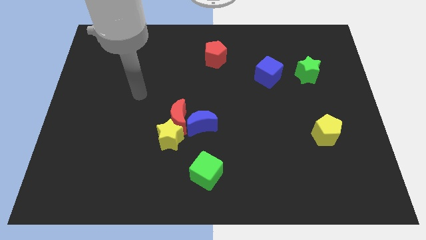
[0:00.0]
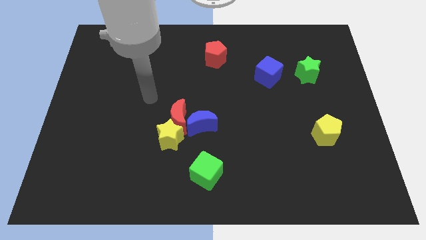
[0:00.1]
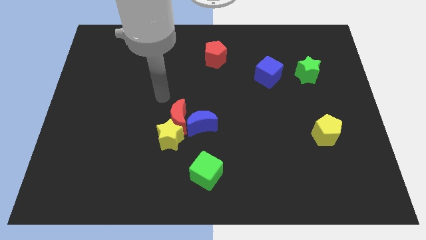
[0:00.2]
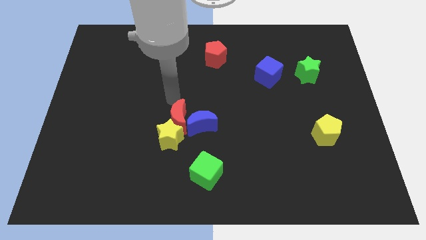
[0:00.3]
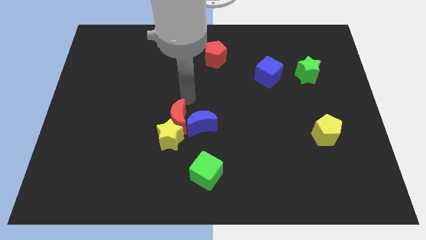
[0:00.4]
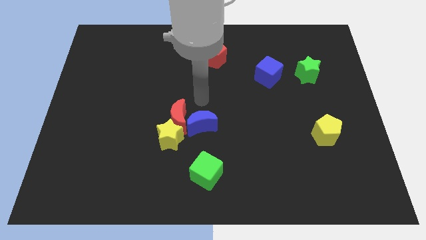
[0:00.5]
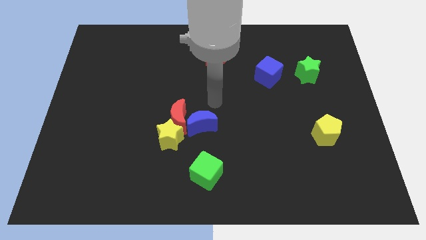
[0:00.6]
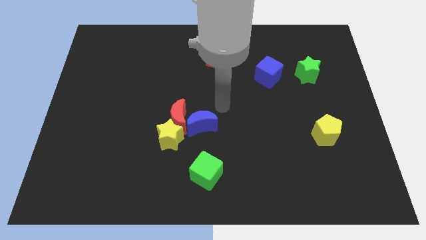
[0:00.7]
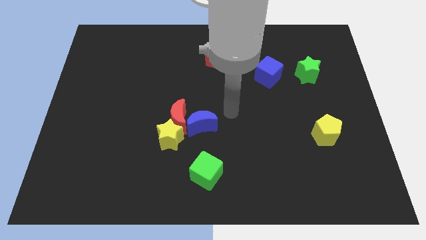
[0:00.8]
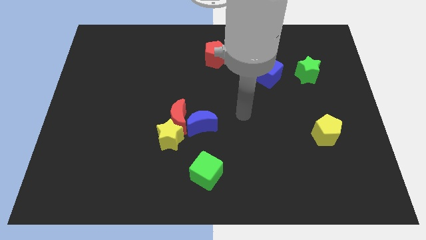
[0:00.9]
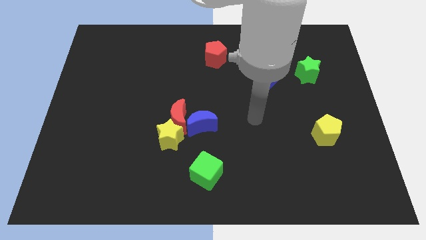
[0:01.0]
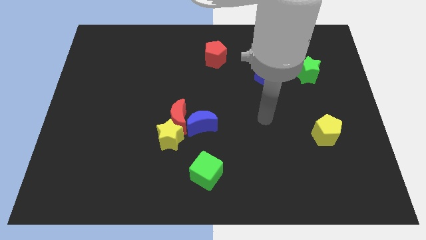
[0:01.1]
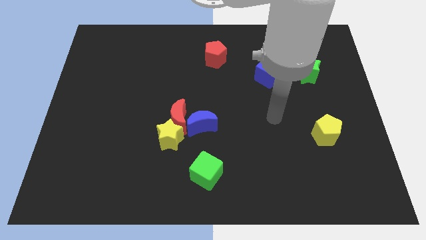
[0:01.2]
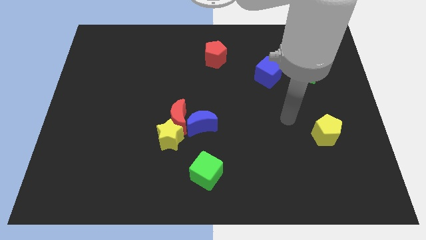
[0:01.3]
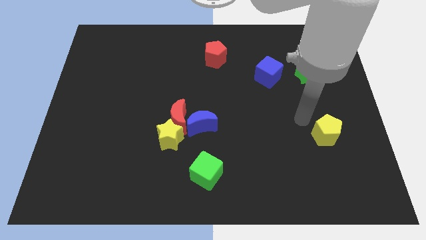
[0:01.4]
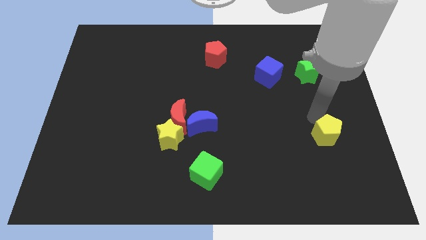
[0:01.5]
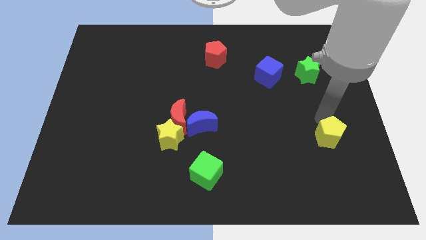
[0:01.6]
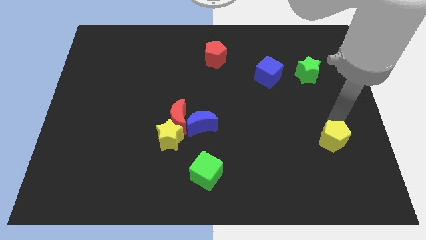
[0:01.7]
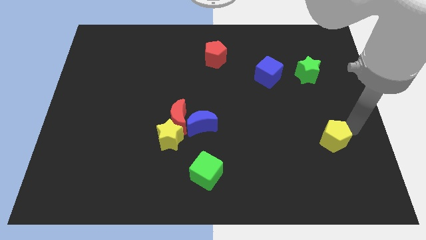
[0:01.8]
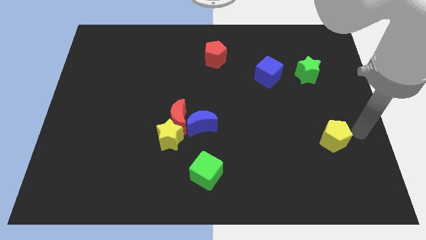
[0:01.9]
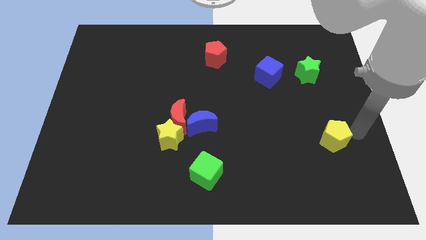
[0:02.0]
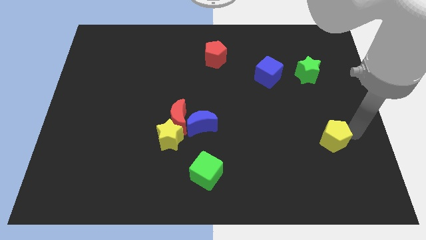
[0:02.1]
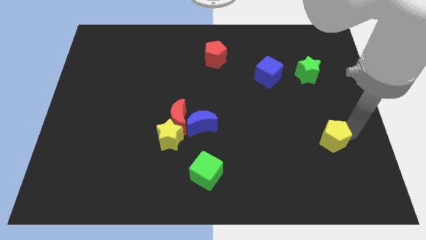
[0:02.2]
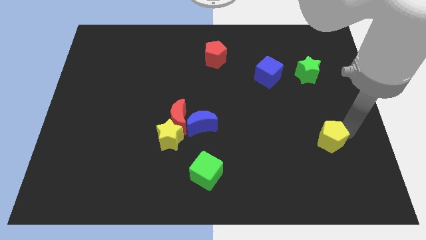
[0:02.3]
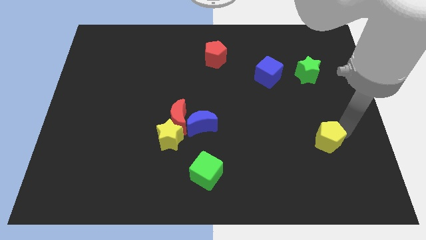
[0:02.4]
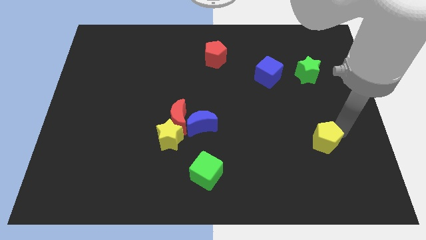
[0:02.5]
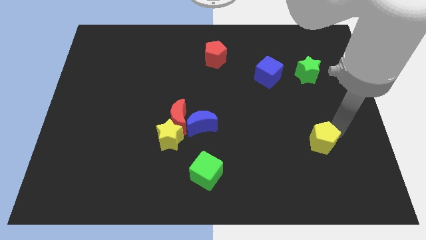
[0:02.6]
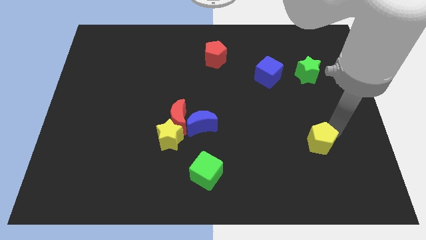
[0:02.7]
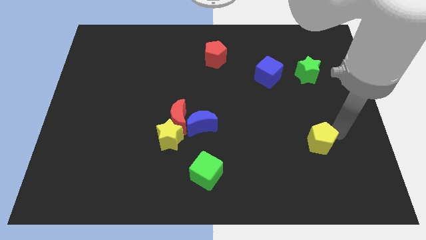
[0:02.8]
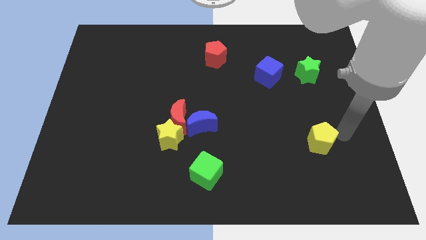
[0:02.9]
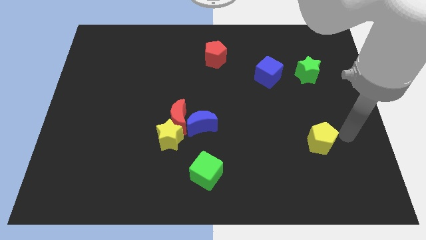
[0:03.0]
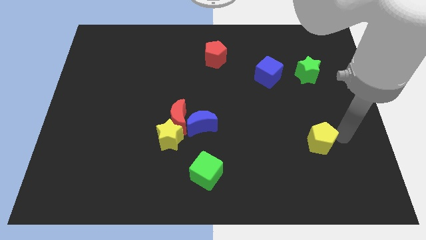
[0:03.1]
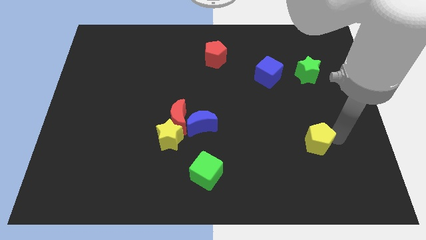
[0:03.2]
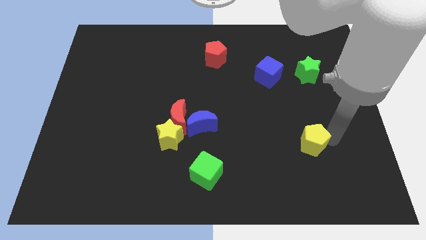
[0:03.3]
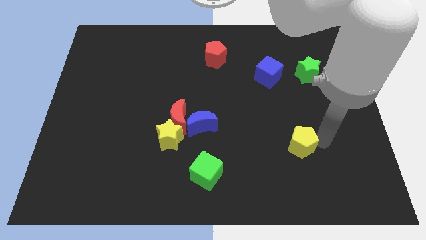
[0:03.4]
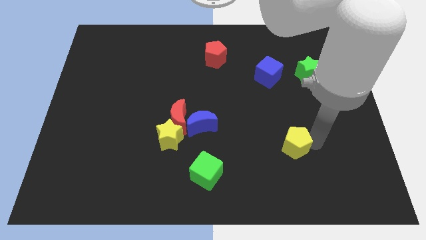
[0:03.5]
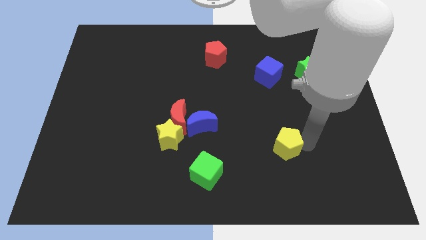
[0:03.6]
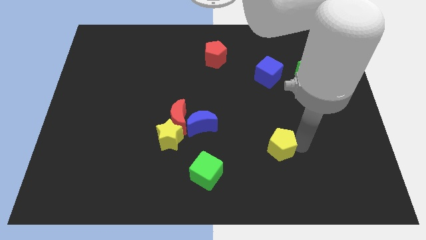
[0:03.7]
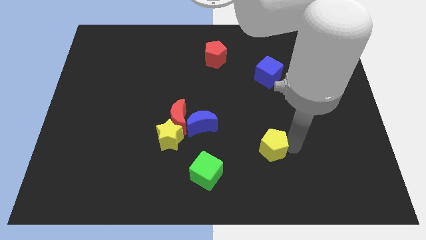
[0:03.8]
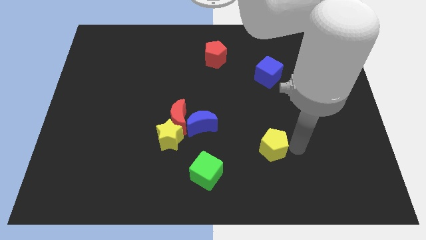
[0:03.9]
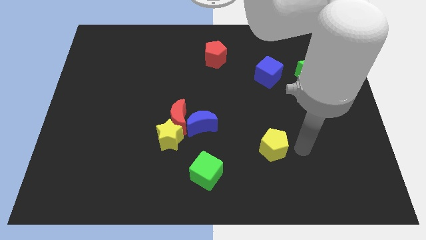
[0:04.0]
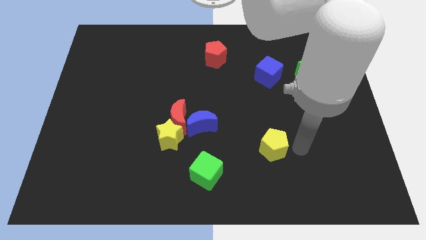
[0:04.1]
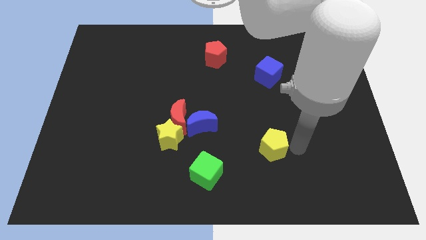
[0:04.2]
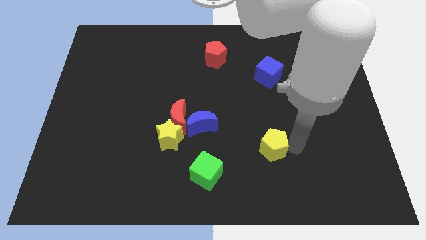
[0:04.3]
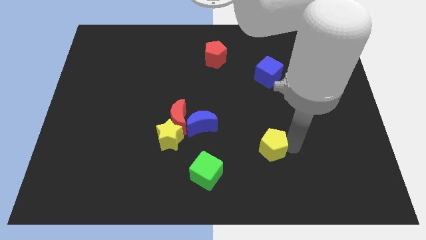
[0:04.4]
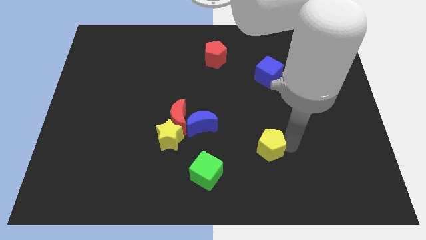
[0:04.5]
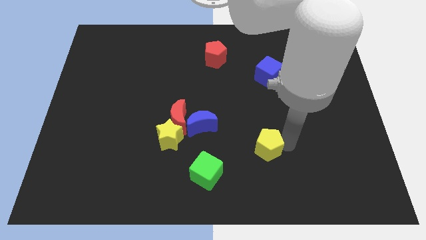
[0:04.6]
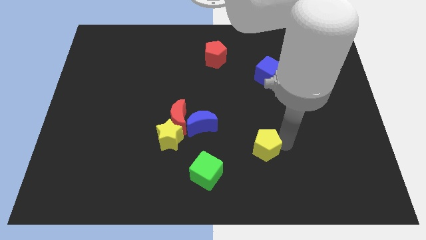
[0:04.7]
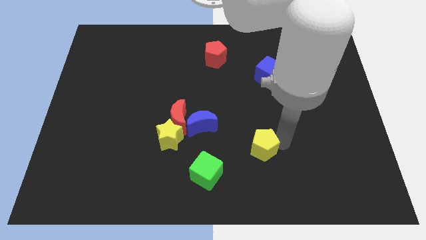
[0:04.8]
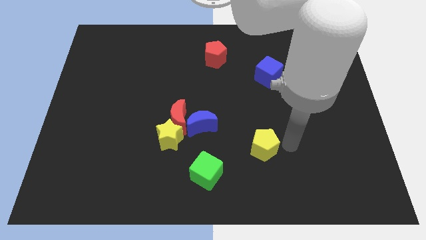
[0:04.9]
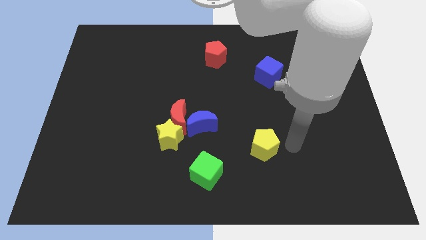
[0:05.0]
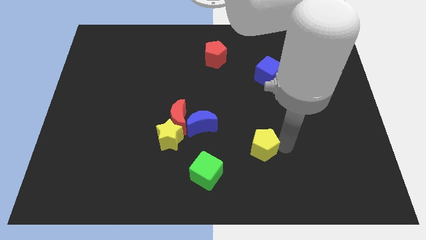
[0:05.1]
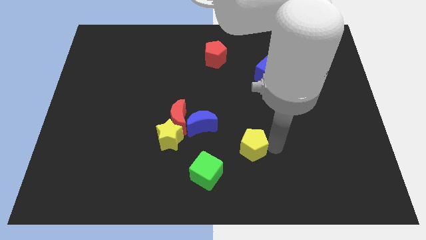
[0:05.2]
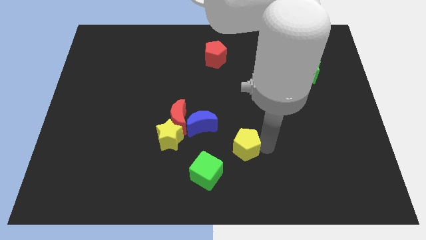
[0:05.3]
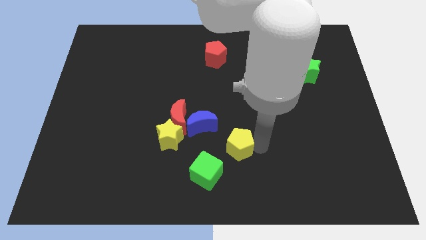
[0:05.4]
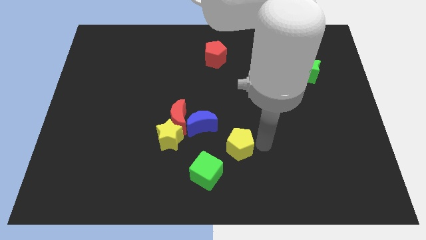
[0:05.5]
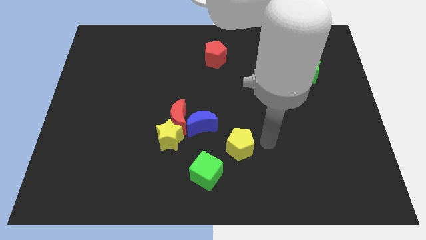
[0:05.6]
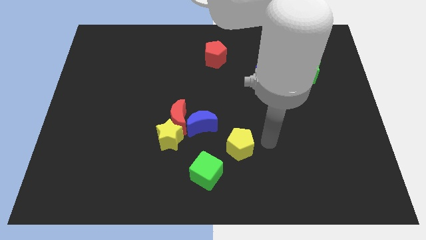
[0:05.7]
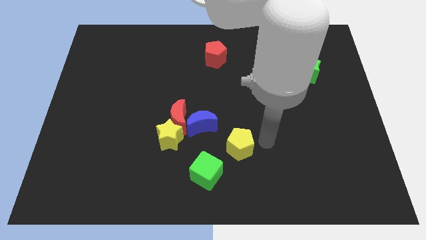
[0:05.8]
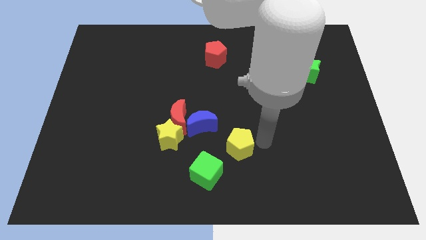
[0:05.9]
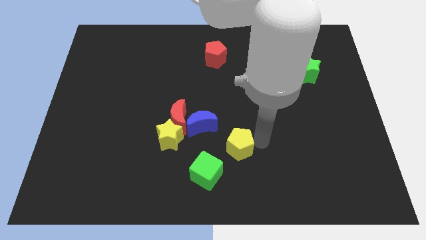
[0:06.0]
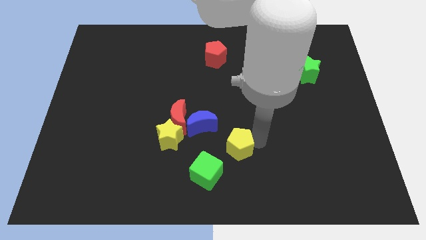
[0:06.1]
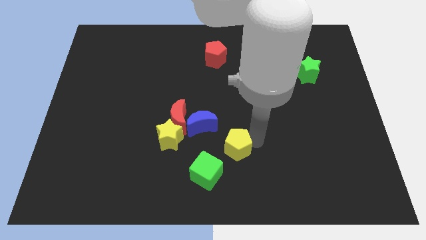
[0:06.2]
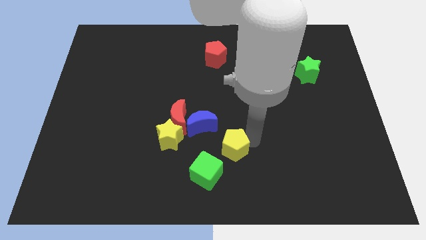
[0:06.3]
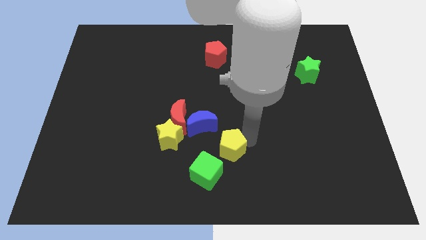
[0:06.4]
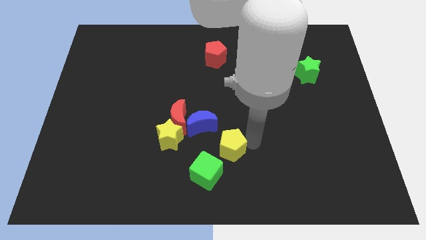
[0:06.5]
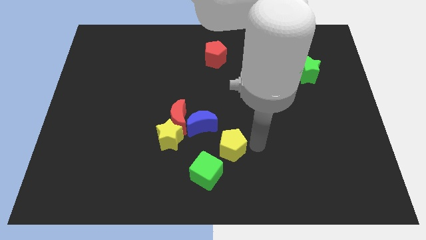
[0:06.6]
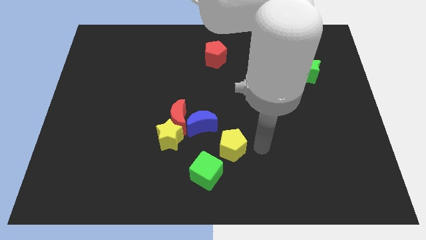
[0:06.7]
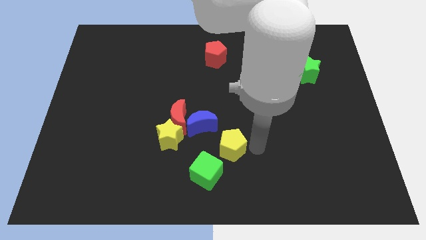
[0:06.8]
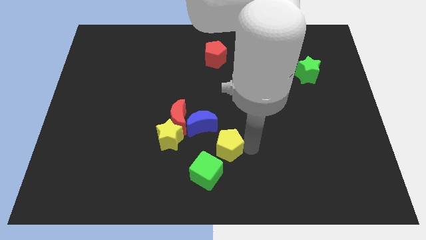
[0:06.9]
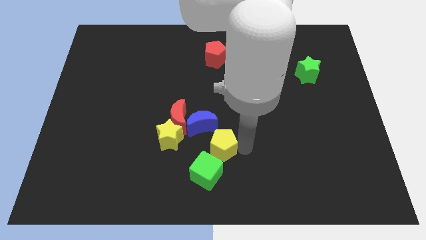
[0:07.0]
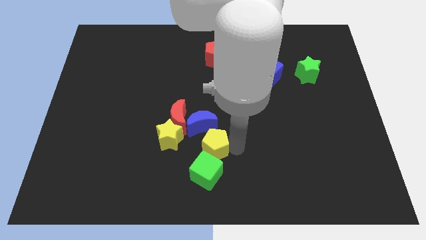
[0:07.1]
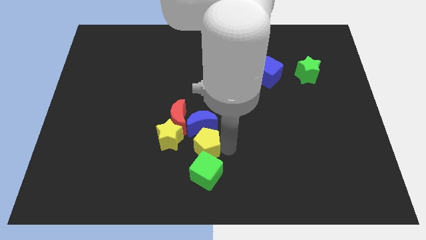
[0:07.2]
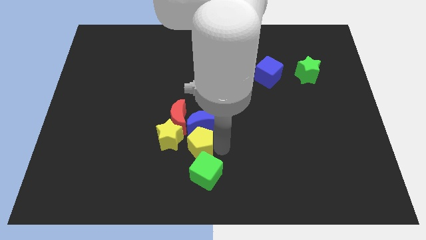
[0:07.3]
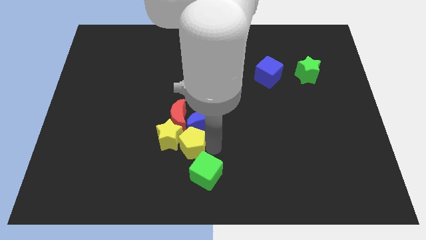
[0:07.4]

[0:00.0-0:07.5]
slide the yellow pentagon to the yellow star
